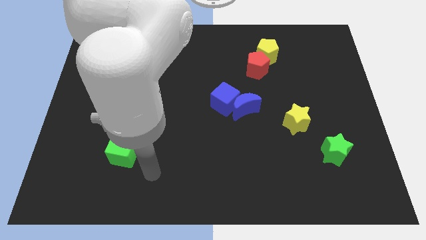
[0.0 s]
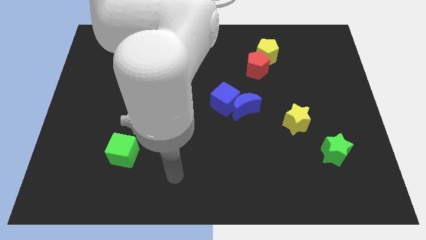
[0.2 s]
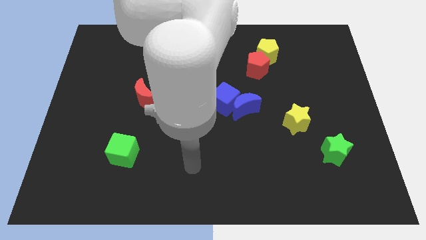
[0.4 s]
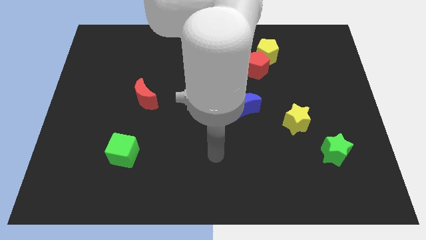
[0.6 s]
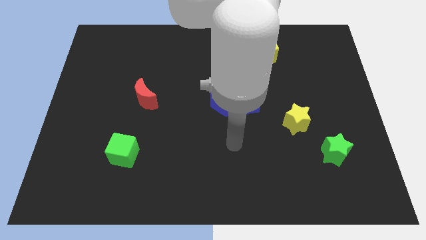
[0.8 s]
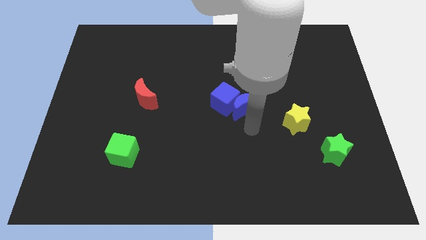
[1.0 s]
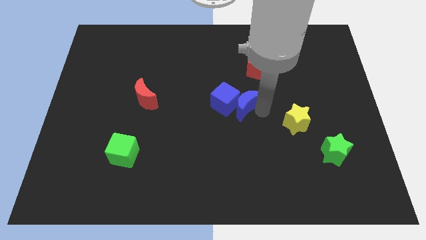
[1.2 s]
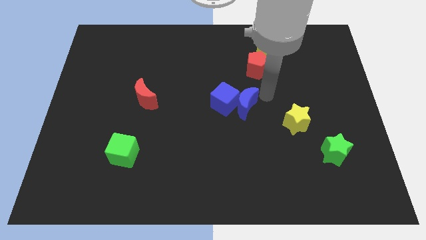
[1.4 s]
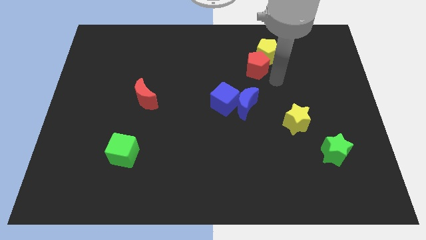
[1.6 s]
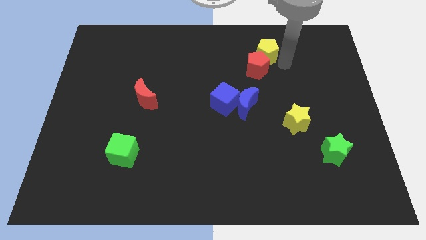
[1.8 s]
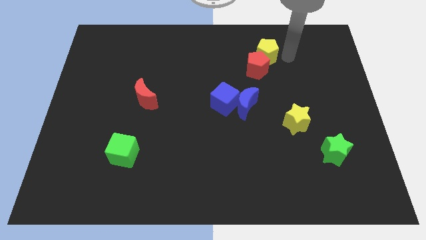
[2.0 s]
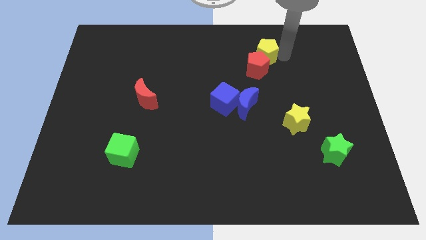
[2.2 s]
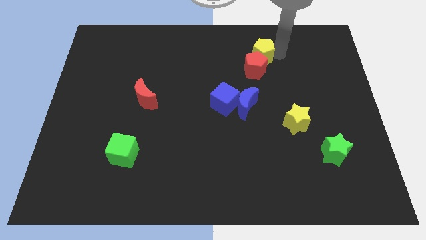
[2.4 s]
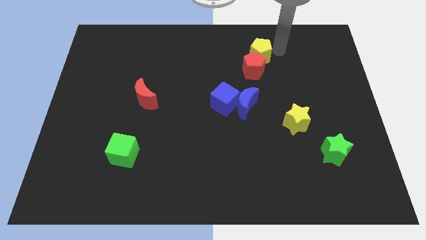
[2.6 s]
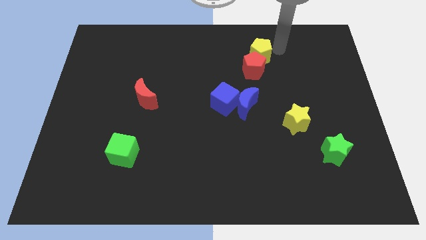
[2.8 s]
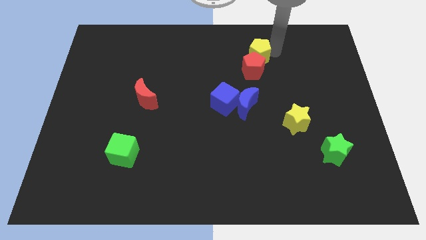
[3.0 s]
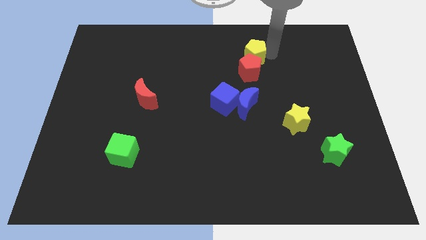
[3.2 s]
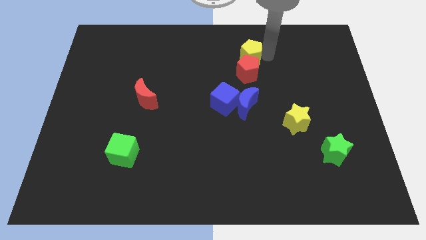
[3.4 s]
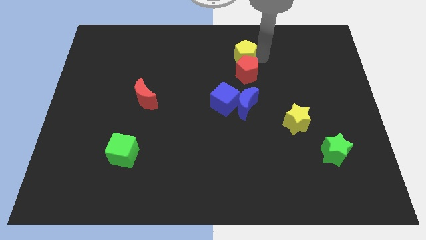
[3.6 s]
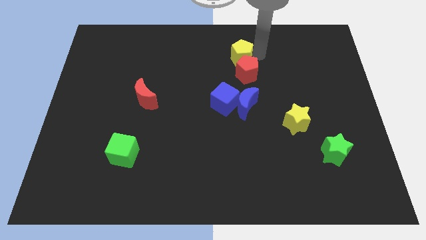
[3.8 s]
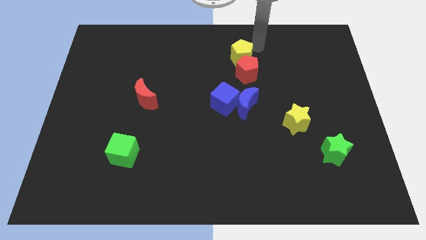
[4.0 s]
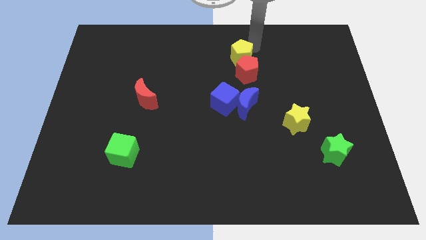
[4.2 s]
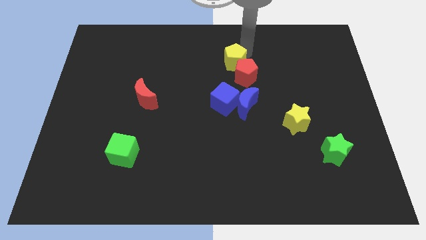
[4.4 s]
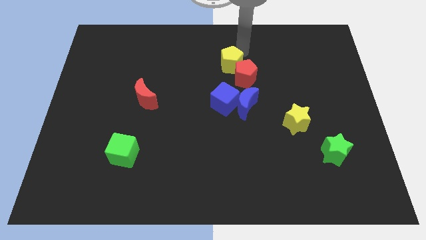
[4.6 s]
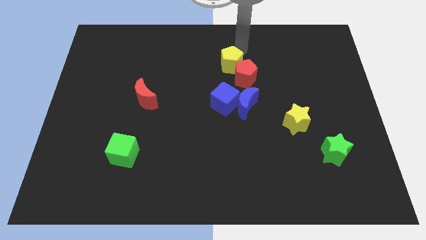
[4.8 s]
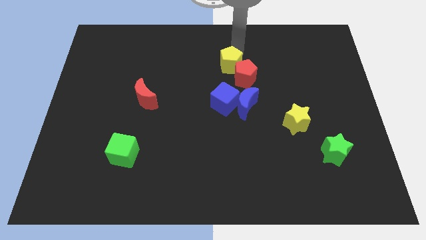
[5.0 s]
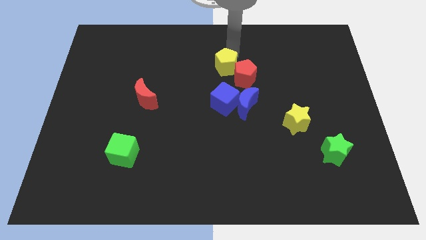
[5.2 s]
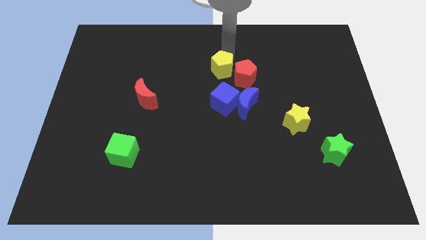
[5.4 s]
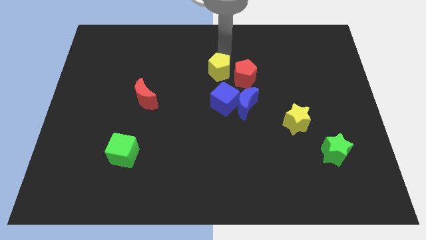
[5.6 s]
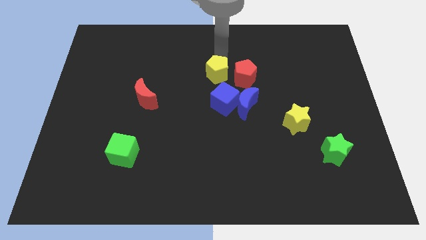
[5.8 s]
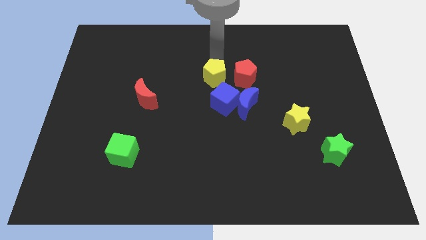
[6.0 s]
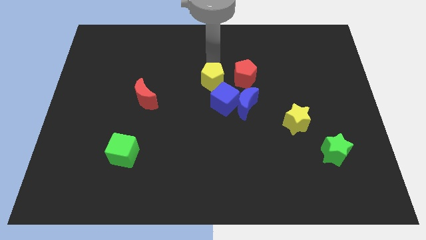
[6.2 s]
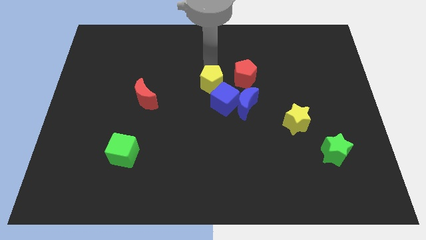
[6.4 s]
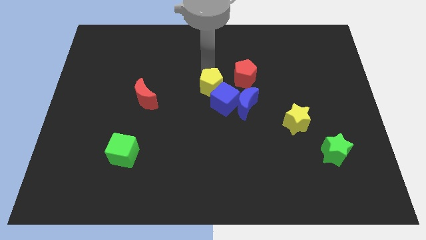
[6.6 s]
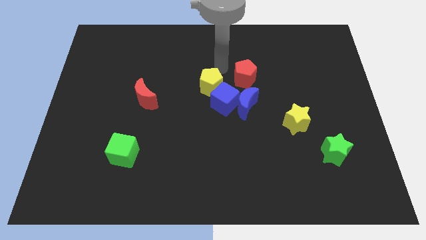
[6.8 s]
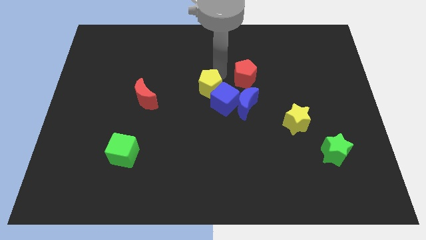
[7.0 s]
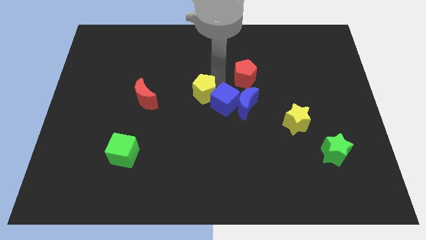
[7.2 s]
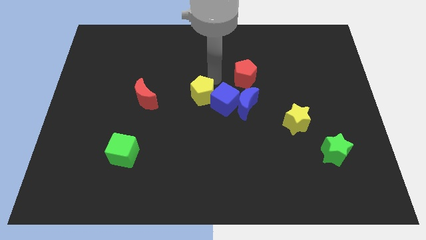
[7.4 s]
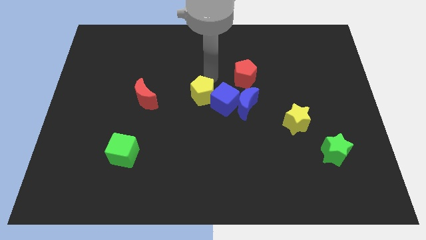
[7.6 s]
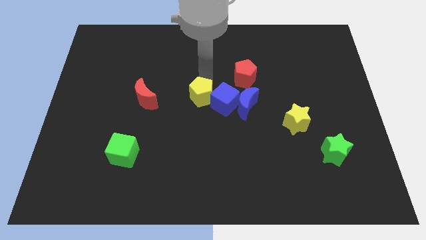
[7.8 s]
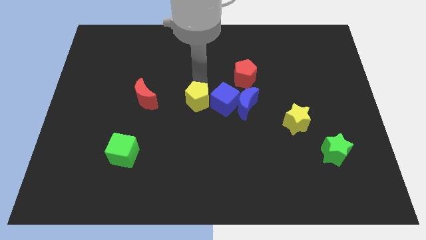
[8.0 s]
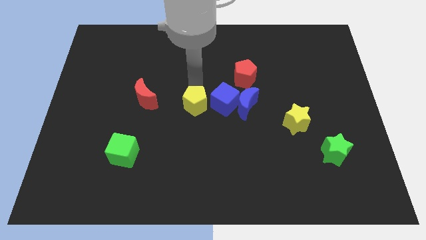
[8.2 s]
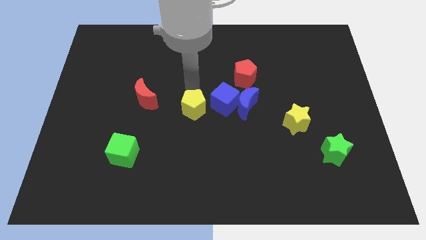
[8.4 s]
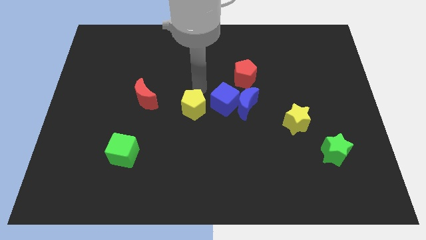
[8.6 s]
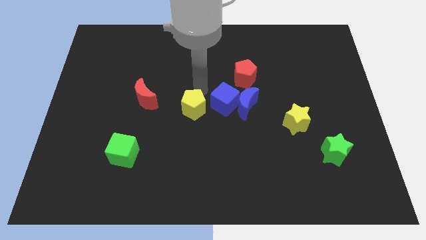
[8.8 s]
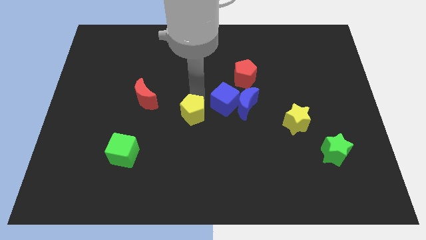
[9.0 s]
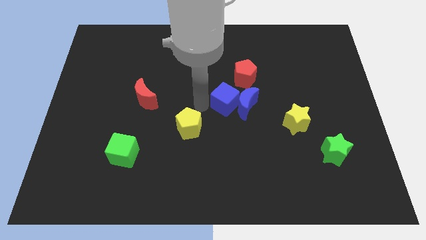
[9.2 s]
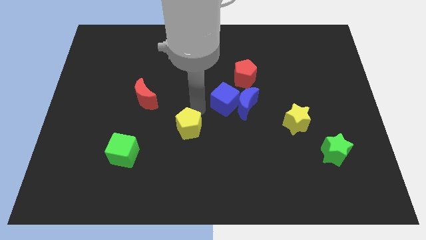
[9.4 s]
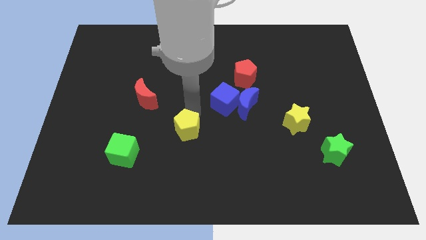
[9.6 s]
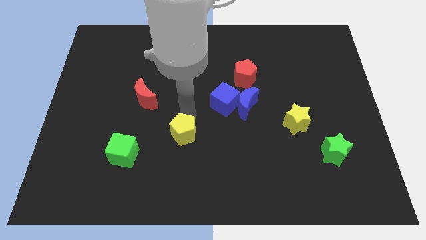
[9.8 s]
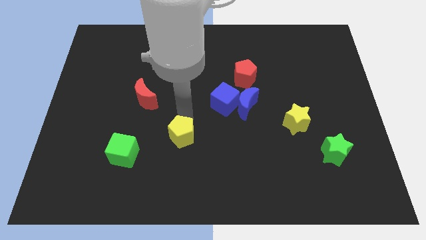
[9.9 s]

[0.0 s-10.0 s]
put the yellow pentagon just right of the green cube

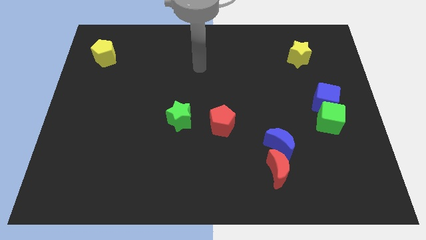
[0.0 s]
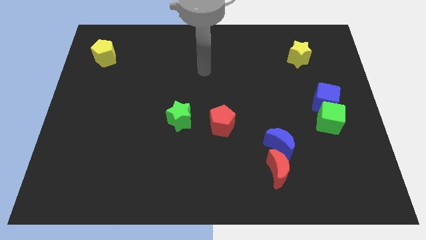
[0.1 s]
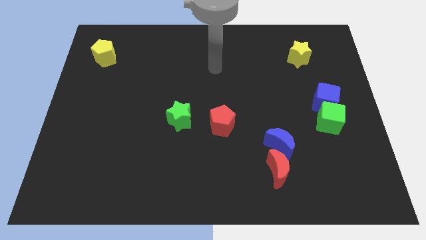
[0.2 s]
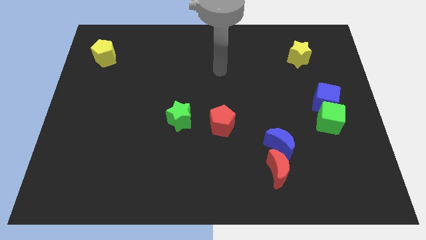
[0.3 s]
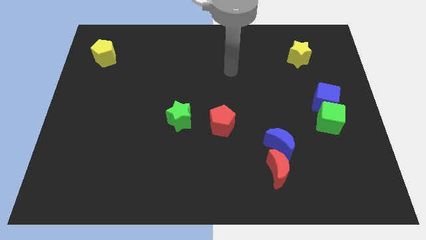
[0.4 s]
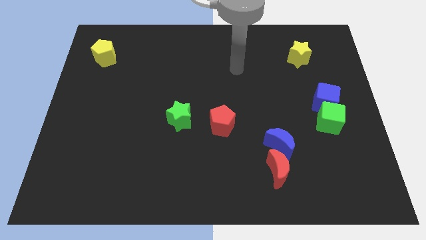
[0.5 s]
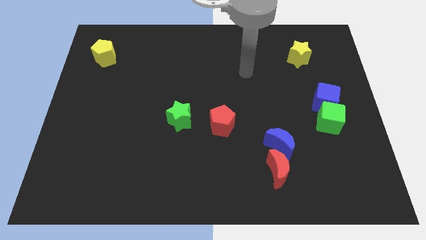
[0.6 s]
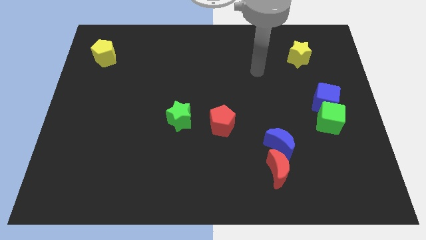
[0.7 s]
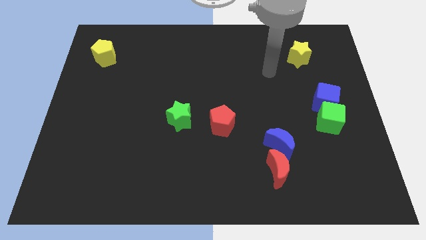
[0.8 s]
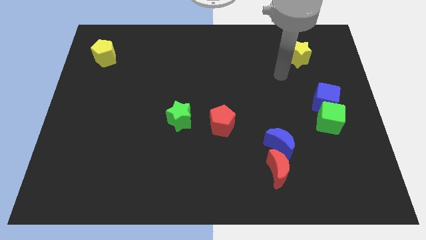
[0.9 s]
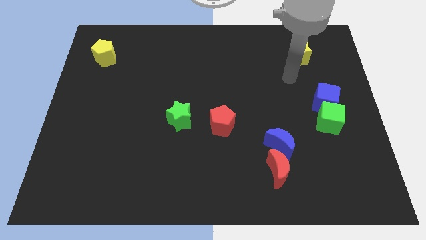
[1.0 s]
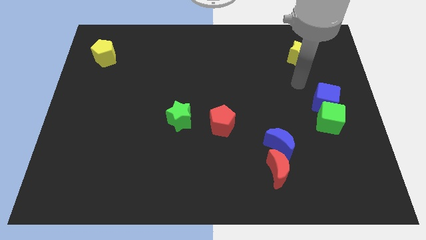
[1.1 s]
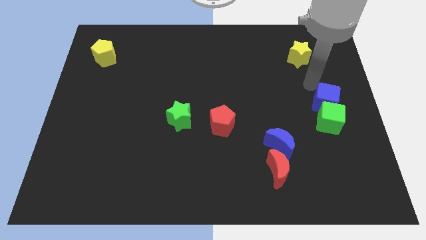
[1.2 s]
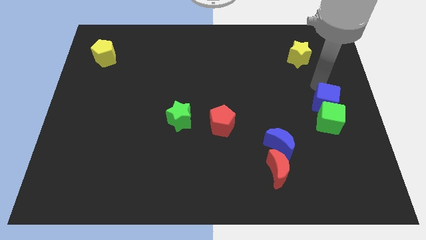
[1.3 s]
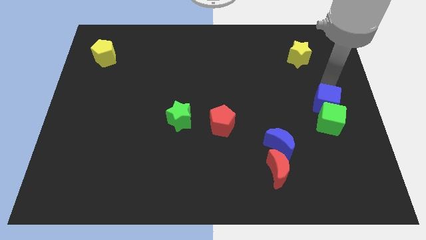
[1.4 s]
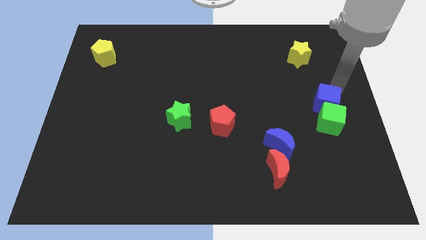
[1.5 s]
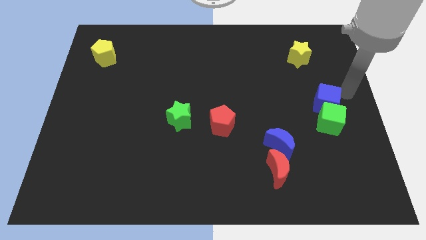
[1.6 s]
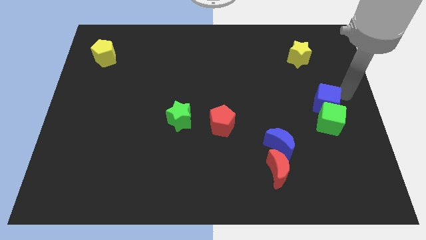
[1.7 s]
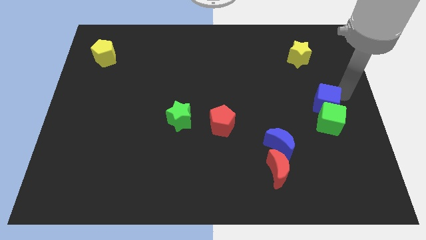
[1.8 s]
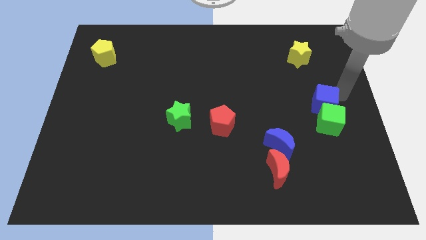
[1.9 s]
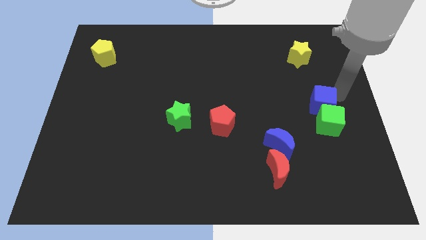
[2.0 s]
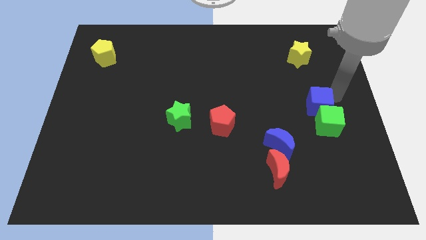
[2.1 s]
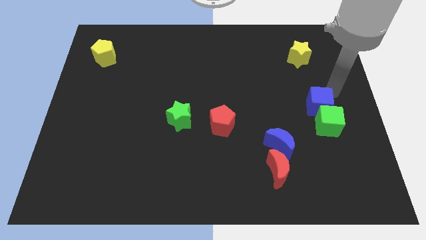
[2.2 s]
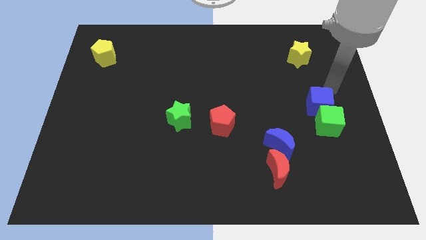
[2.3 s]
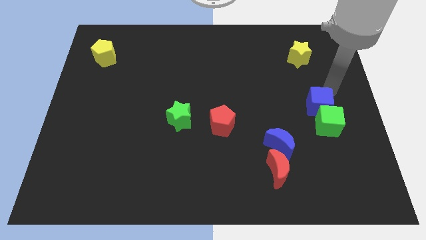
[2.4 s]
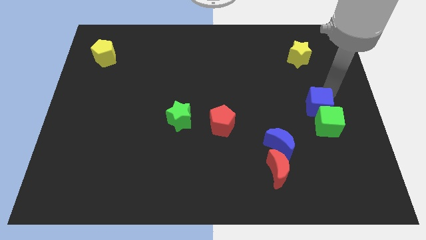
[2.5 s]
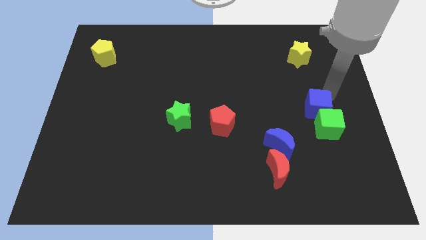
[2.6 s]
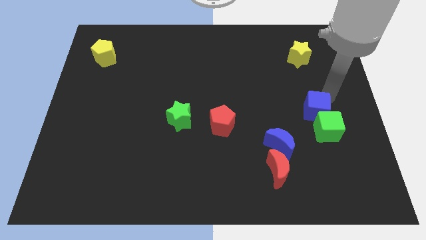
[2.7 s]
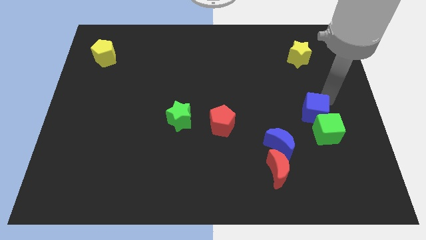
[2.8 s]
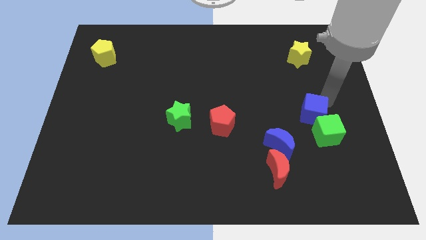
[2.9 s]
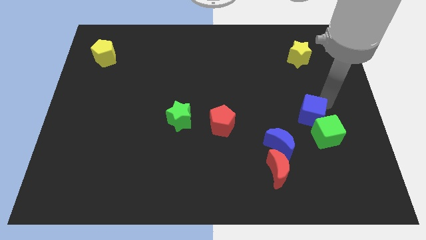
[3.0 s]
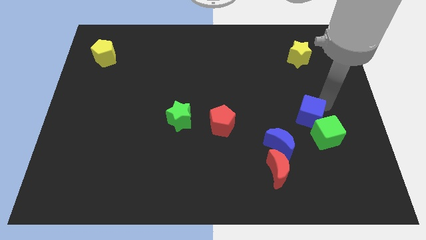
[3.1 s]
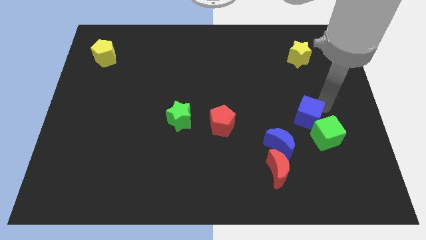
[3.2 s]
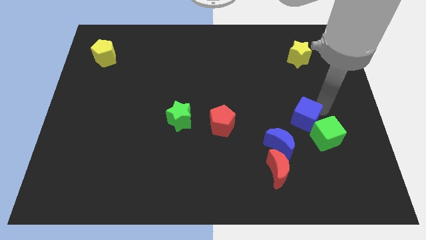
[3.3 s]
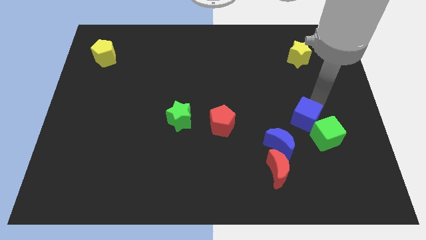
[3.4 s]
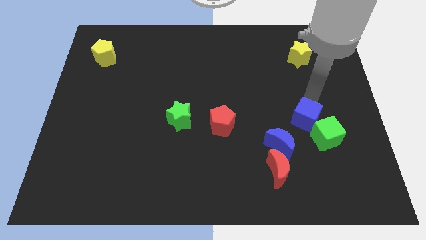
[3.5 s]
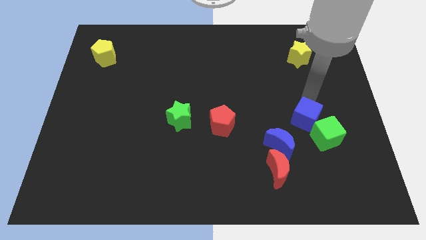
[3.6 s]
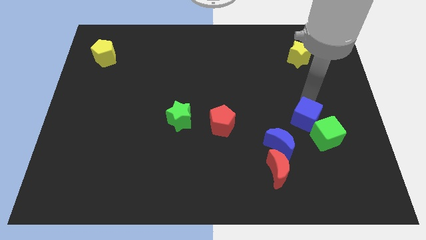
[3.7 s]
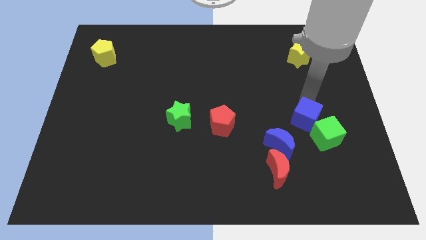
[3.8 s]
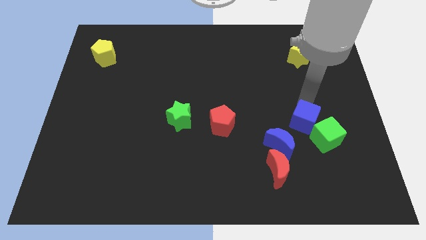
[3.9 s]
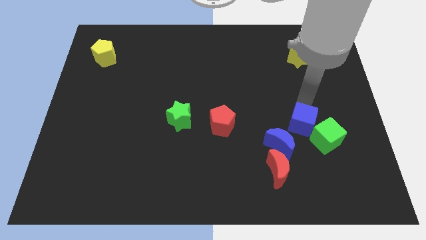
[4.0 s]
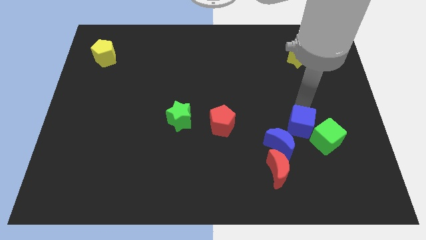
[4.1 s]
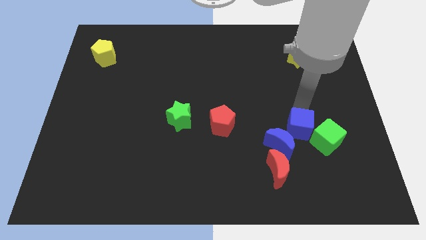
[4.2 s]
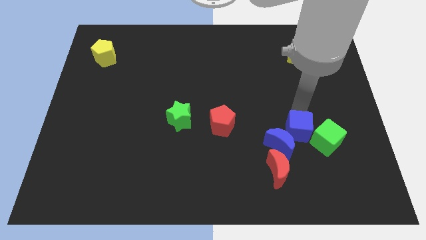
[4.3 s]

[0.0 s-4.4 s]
slide the blue cube diagonally up and to the right of the red moon
